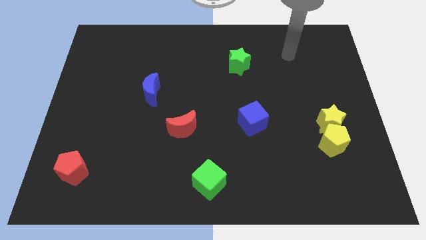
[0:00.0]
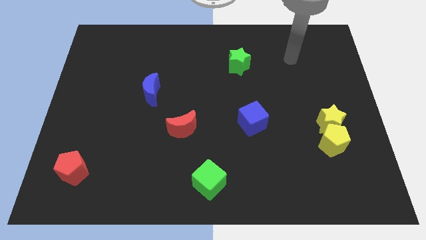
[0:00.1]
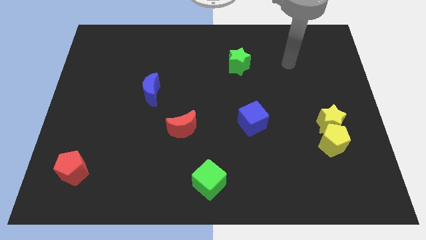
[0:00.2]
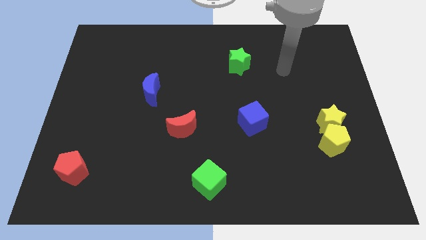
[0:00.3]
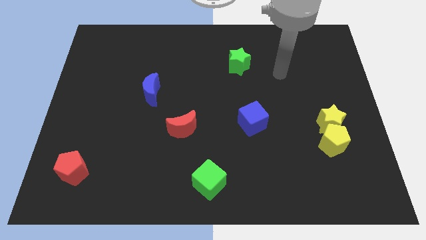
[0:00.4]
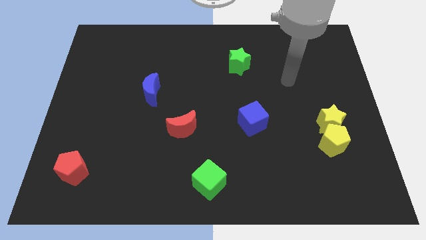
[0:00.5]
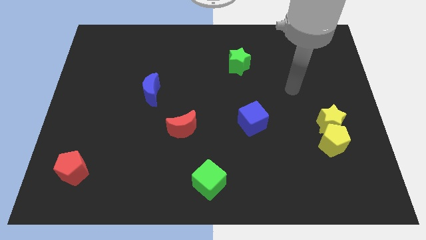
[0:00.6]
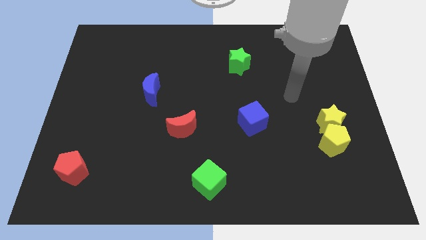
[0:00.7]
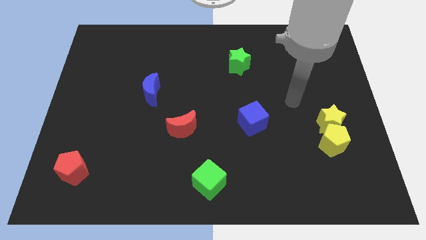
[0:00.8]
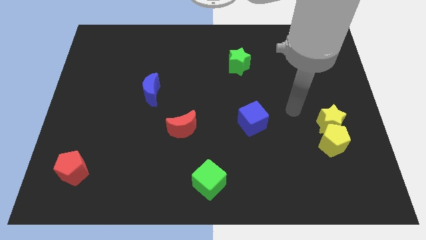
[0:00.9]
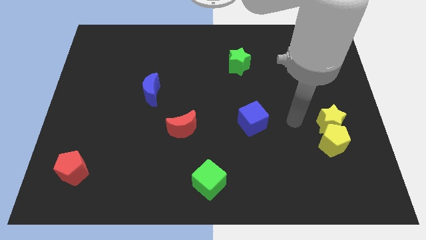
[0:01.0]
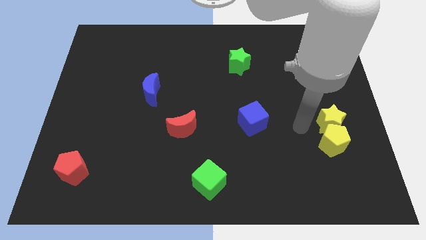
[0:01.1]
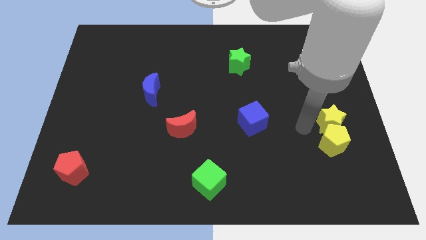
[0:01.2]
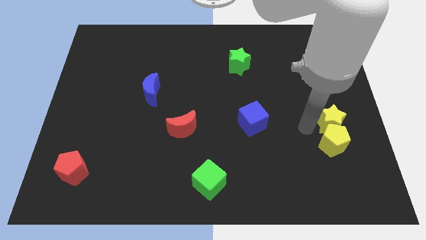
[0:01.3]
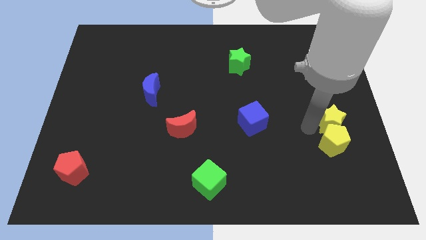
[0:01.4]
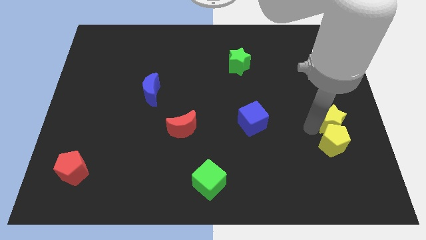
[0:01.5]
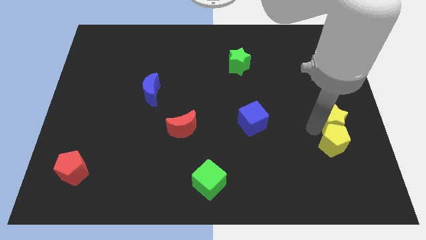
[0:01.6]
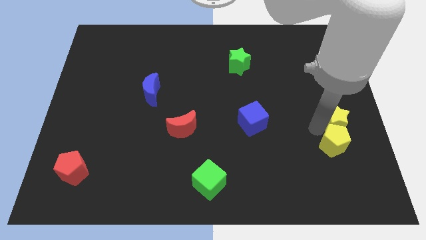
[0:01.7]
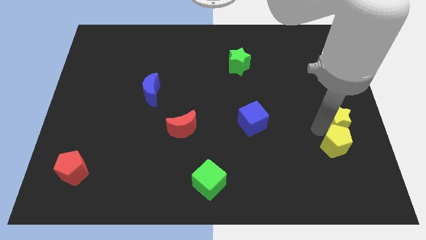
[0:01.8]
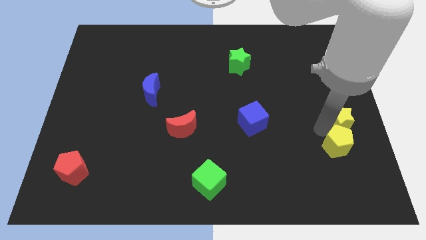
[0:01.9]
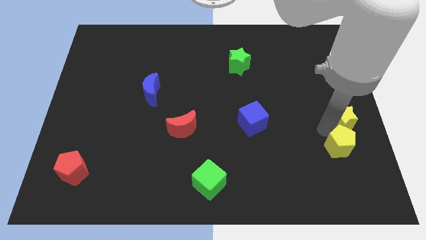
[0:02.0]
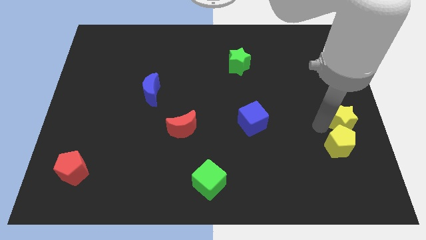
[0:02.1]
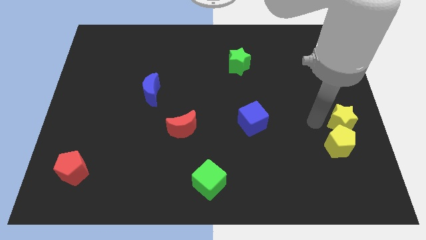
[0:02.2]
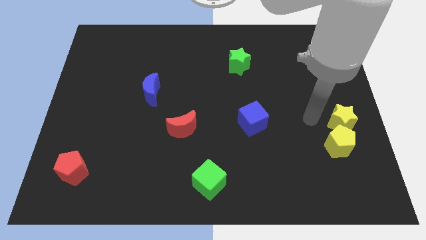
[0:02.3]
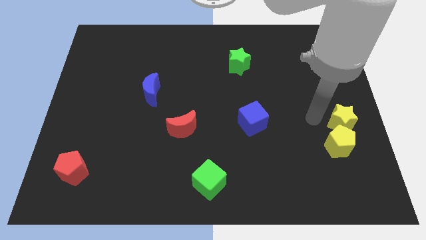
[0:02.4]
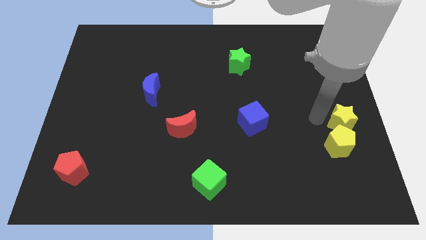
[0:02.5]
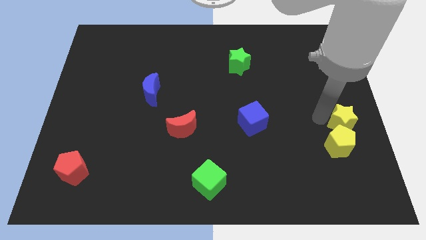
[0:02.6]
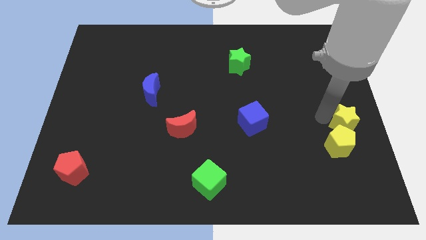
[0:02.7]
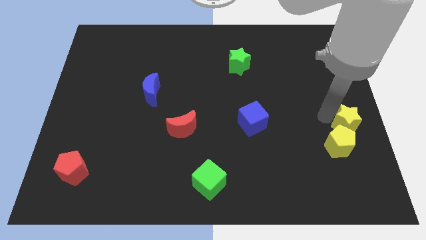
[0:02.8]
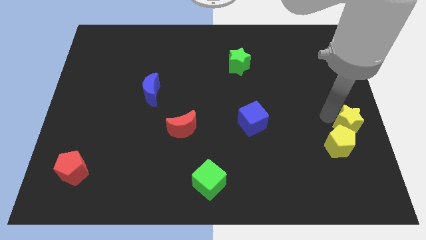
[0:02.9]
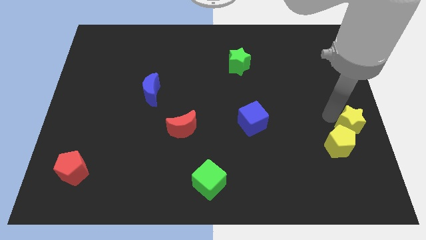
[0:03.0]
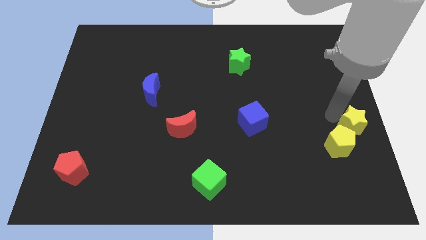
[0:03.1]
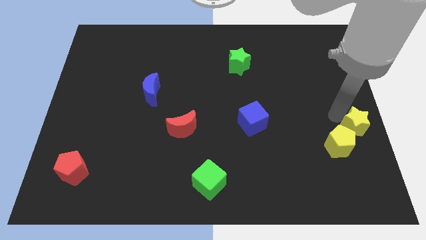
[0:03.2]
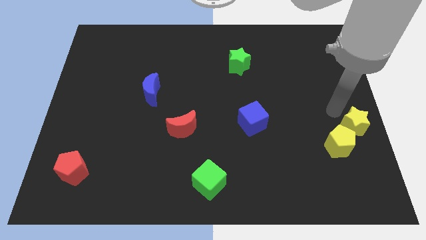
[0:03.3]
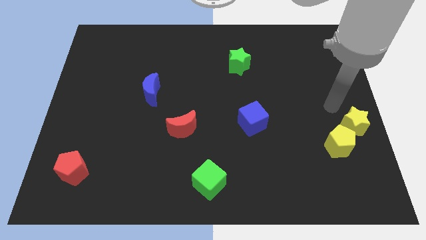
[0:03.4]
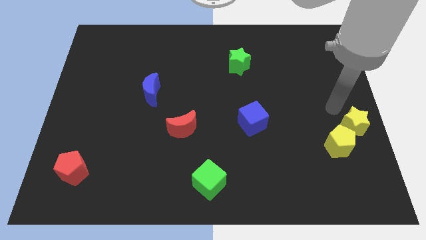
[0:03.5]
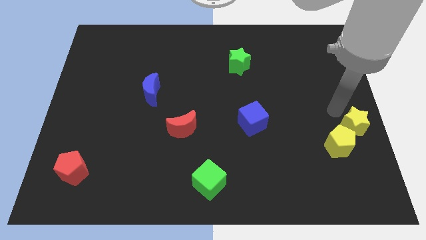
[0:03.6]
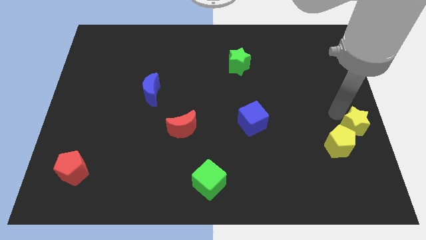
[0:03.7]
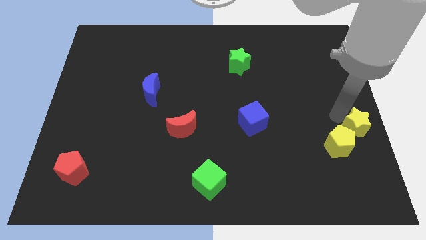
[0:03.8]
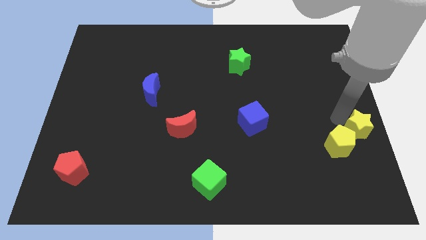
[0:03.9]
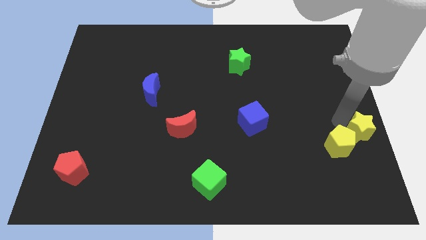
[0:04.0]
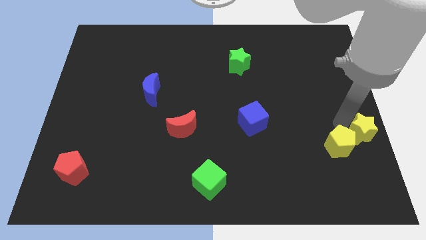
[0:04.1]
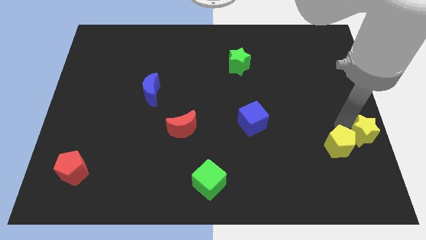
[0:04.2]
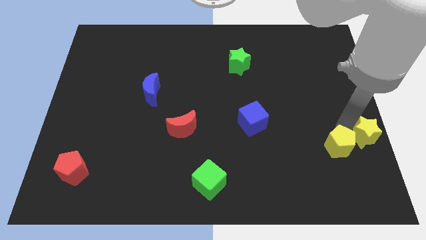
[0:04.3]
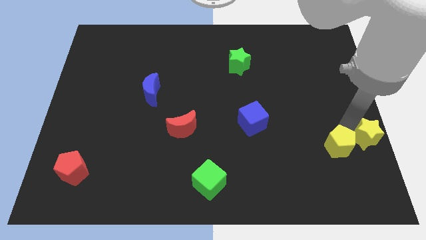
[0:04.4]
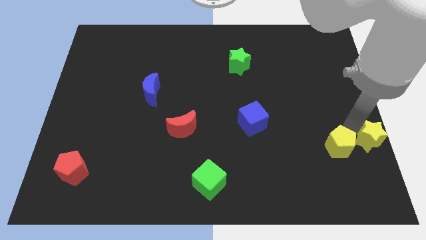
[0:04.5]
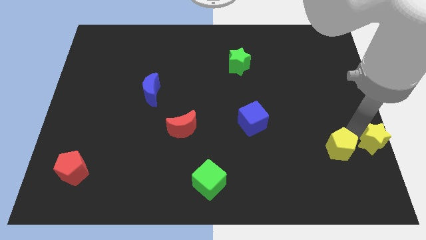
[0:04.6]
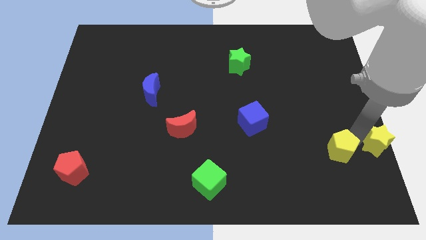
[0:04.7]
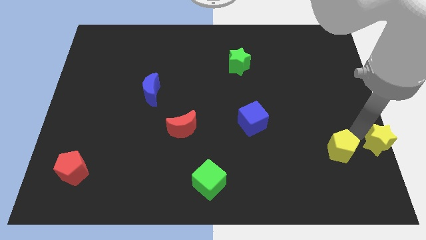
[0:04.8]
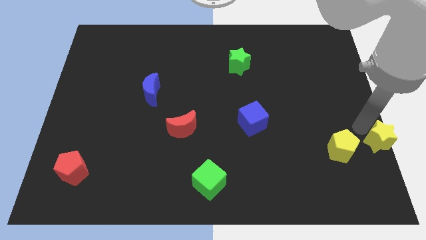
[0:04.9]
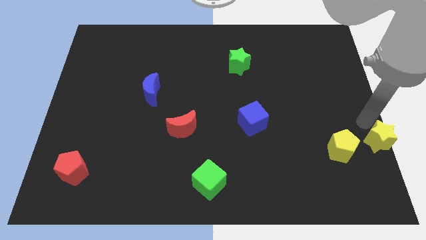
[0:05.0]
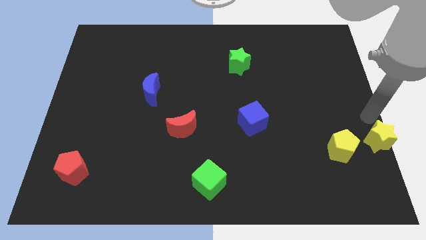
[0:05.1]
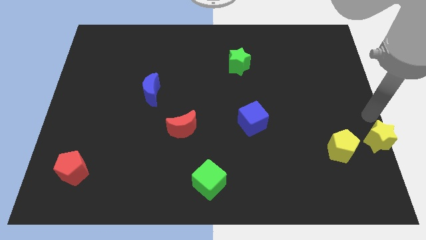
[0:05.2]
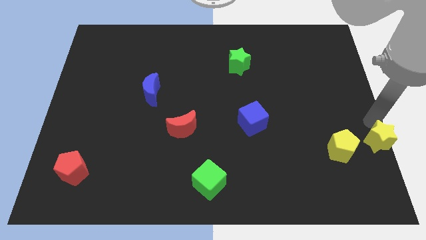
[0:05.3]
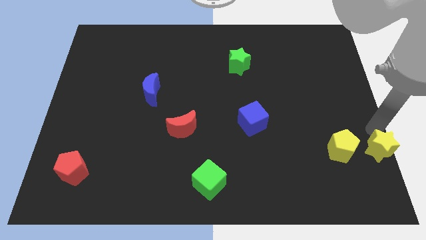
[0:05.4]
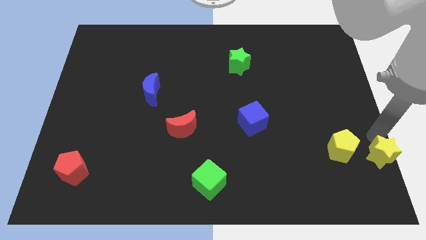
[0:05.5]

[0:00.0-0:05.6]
put the yellow star to the bottom right of the board

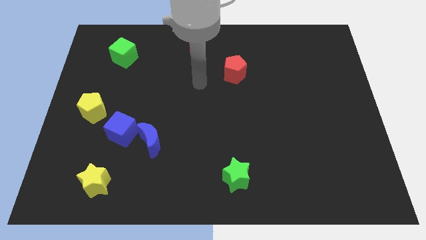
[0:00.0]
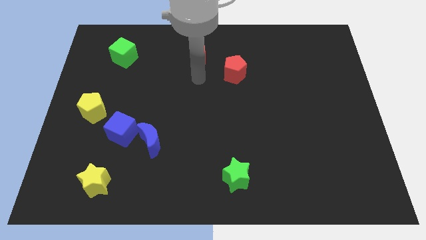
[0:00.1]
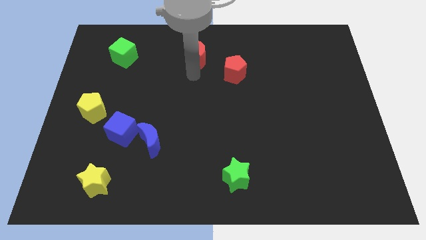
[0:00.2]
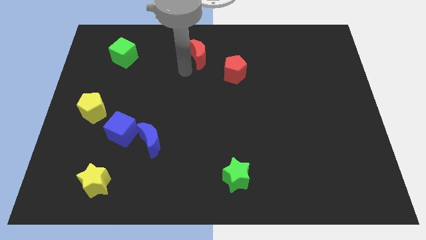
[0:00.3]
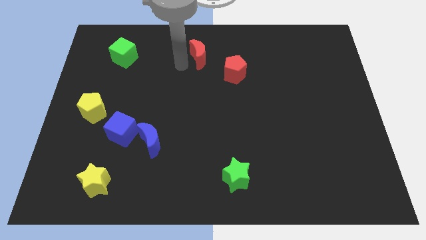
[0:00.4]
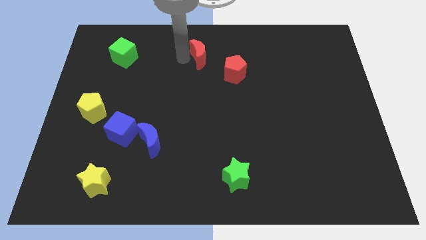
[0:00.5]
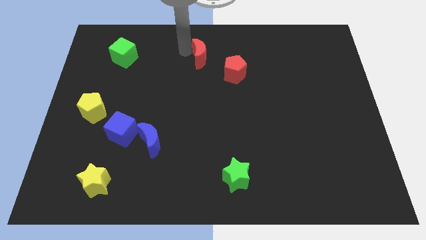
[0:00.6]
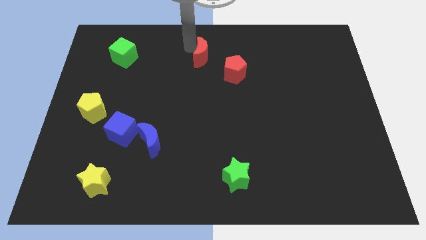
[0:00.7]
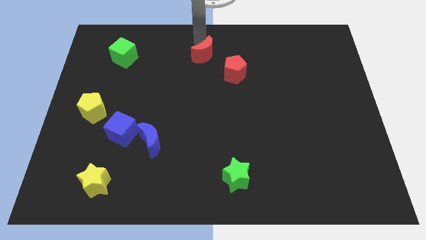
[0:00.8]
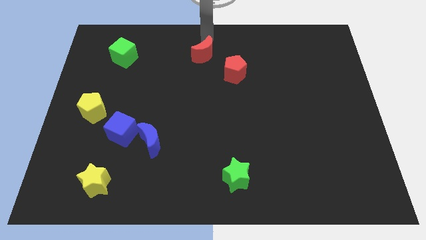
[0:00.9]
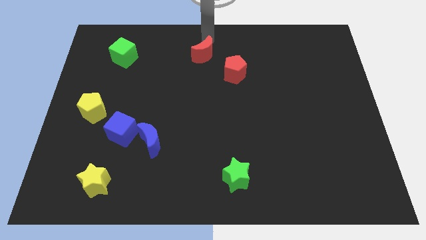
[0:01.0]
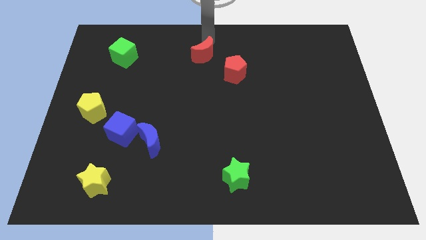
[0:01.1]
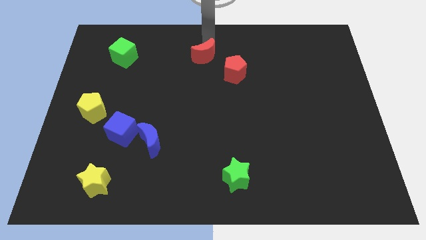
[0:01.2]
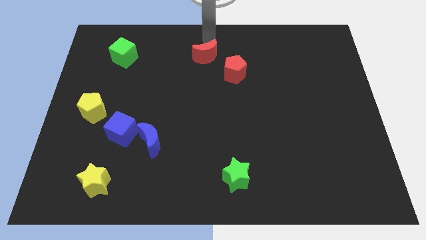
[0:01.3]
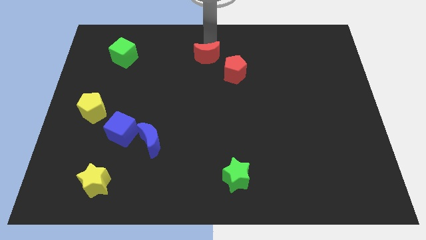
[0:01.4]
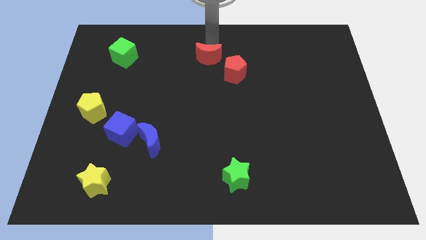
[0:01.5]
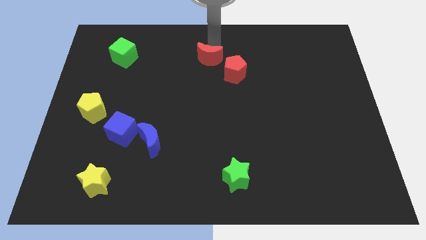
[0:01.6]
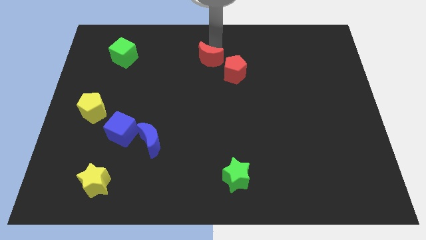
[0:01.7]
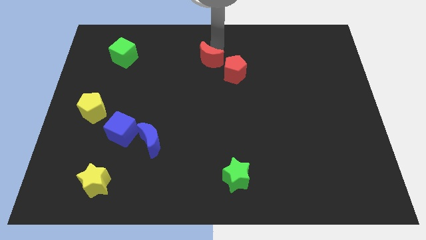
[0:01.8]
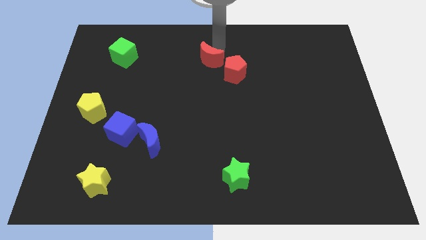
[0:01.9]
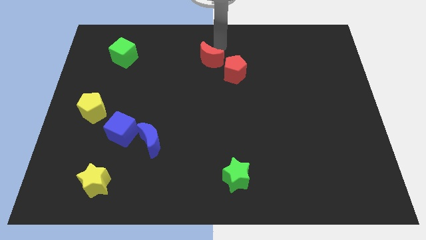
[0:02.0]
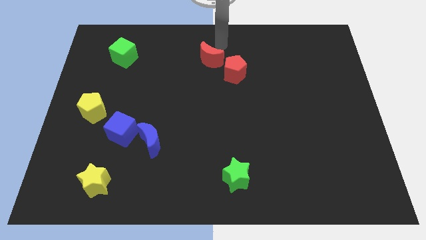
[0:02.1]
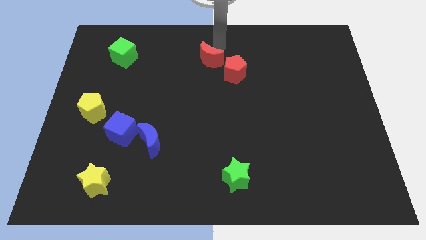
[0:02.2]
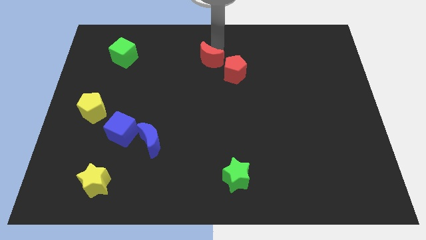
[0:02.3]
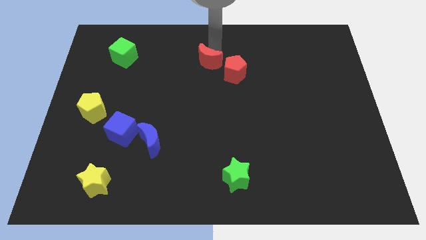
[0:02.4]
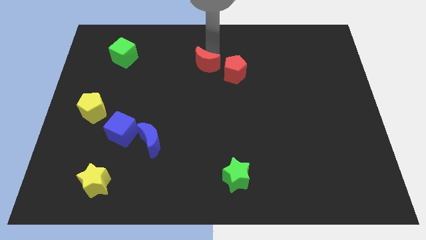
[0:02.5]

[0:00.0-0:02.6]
put the red moon to the center
